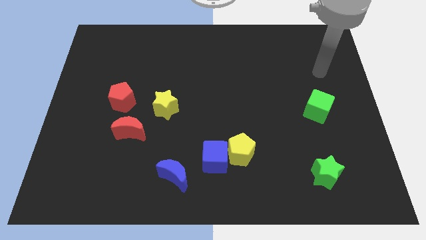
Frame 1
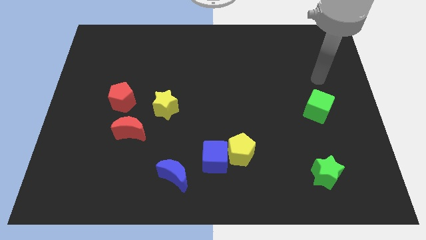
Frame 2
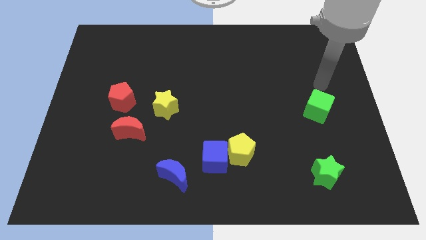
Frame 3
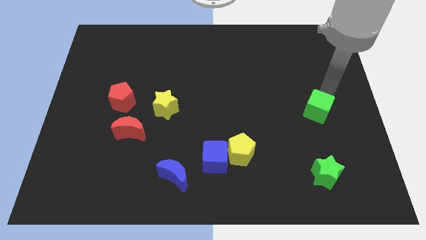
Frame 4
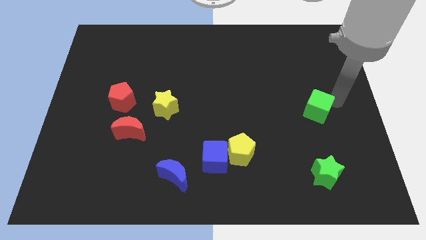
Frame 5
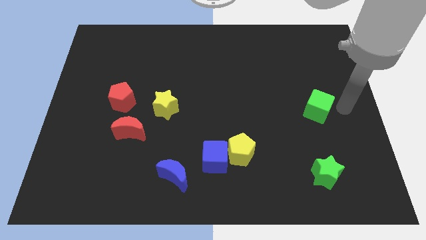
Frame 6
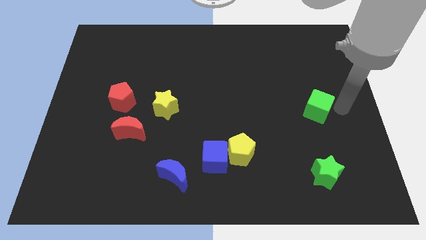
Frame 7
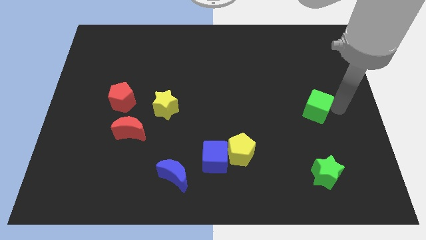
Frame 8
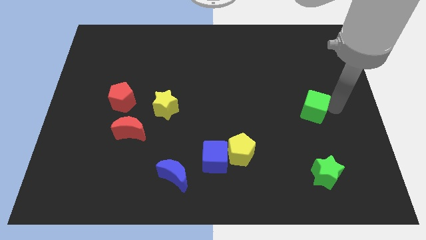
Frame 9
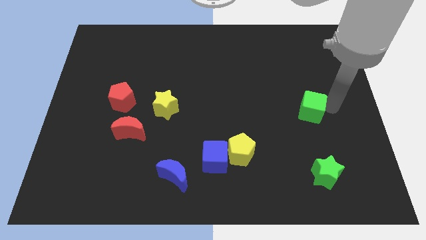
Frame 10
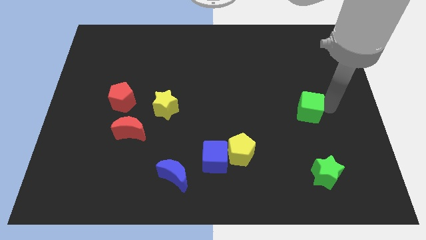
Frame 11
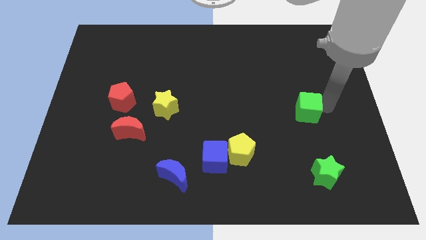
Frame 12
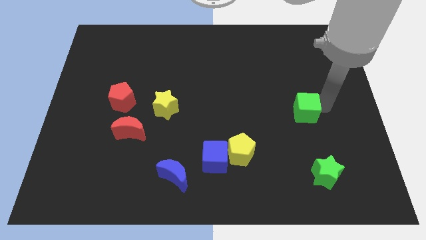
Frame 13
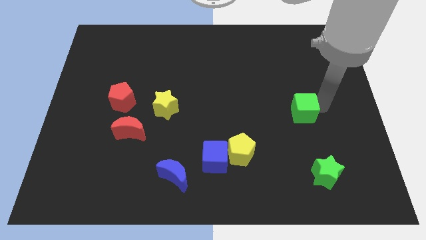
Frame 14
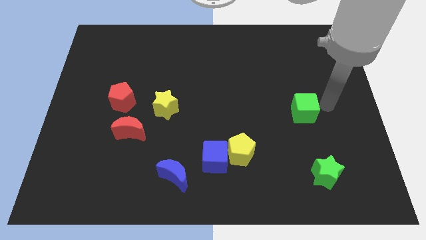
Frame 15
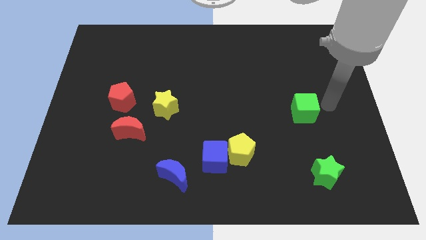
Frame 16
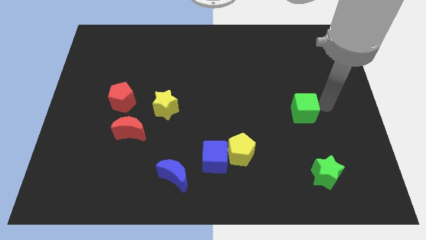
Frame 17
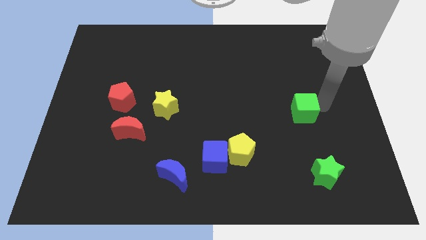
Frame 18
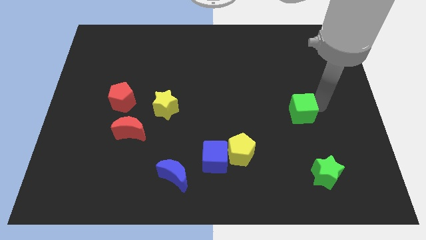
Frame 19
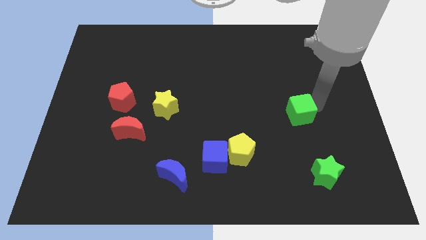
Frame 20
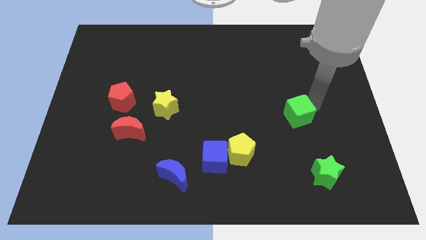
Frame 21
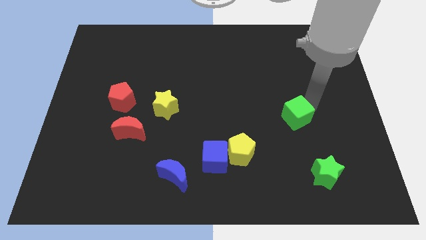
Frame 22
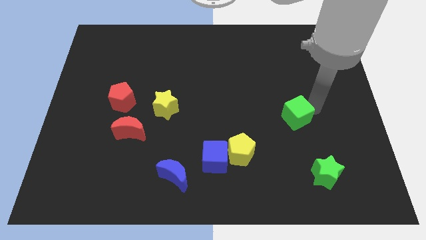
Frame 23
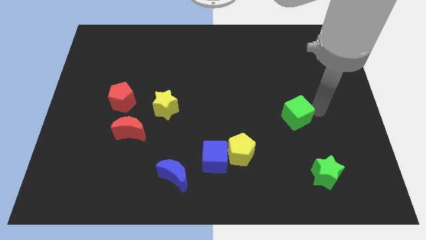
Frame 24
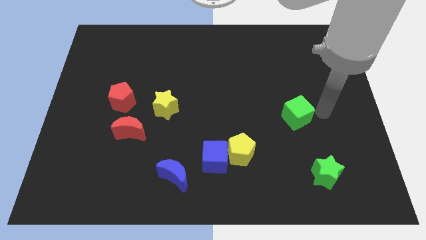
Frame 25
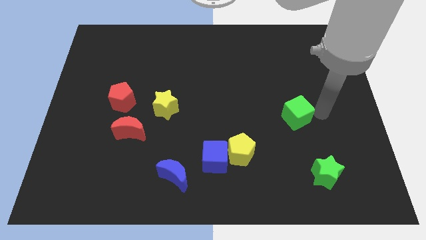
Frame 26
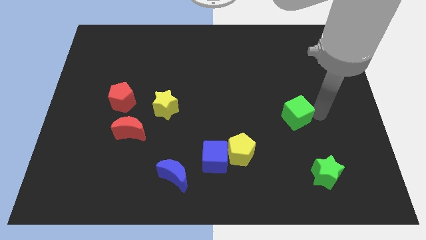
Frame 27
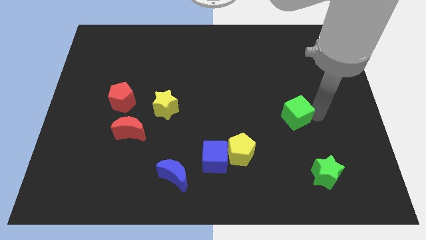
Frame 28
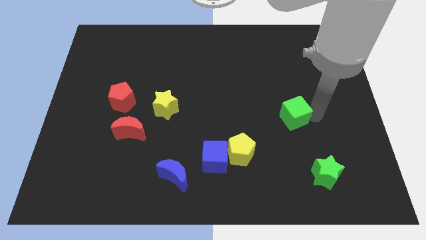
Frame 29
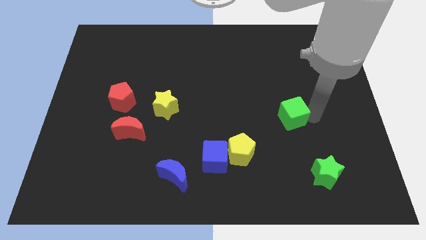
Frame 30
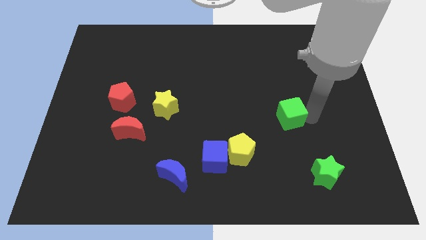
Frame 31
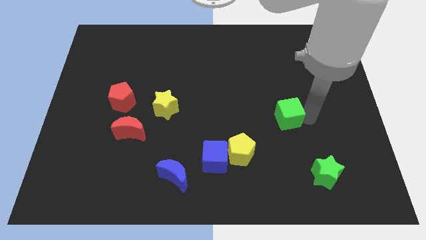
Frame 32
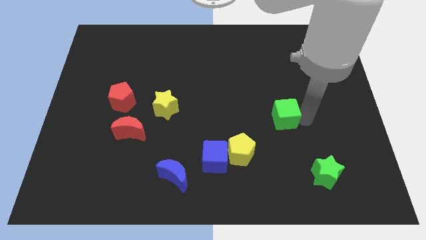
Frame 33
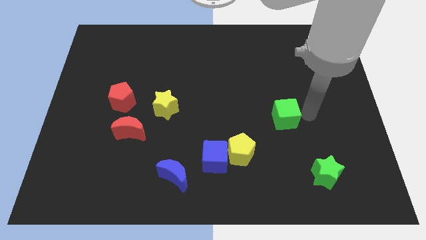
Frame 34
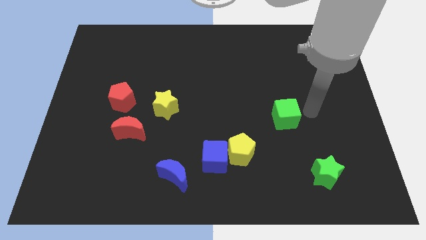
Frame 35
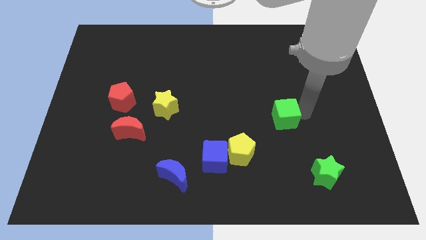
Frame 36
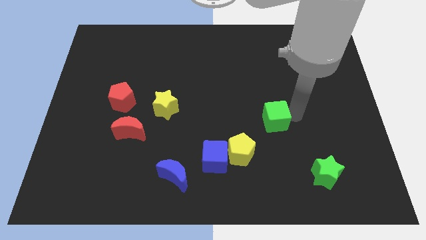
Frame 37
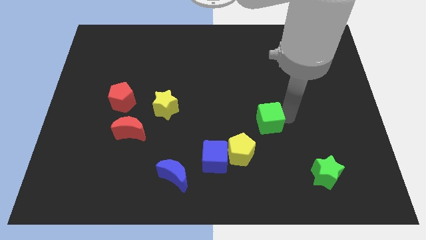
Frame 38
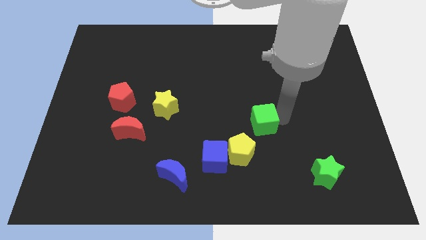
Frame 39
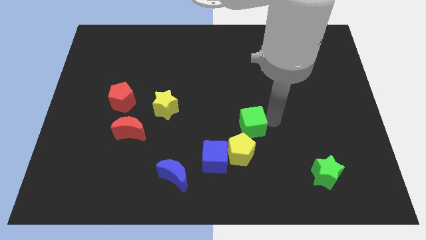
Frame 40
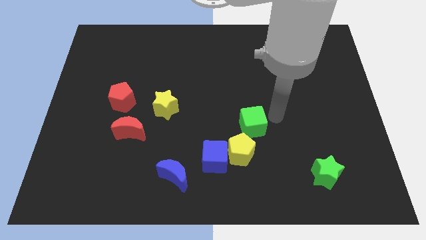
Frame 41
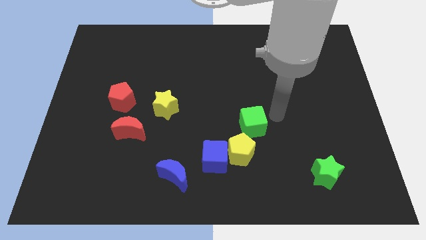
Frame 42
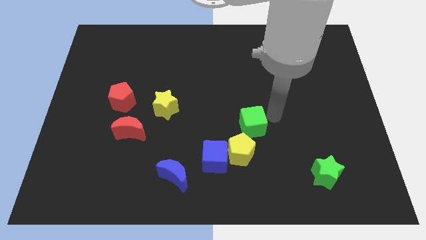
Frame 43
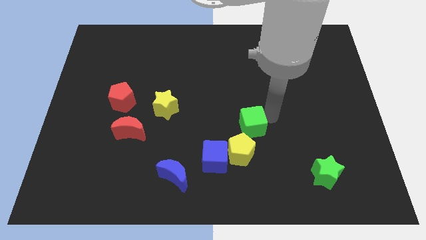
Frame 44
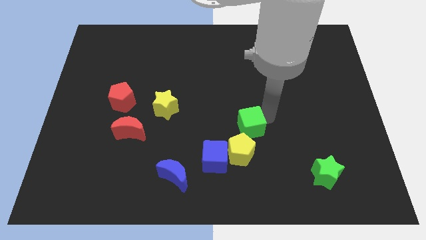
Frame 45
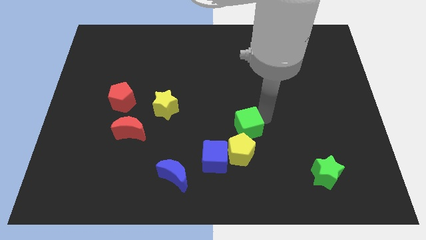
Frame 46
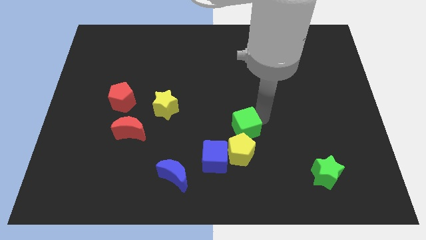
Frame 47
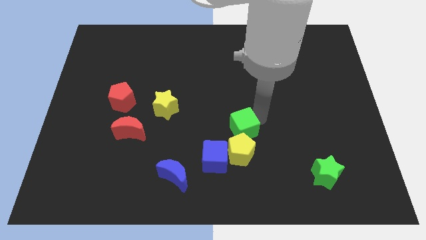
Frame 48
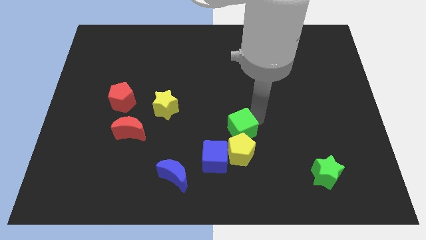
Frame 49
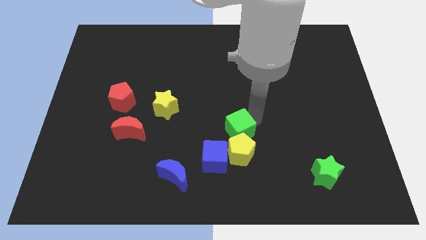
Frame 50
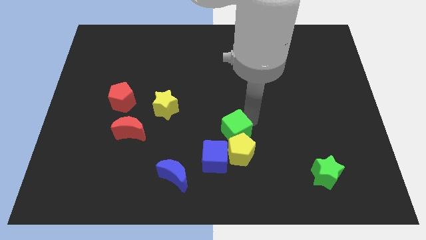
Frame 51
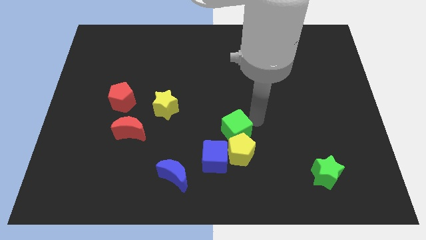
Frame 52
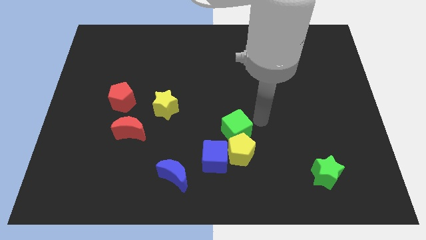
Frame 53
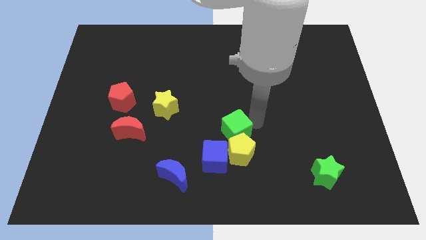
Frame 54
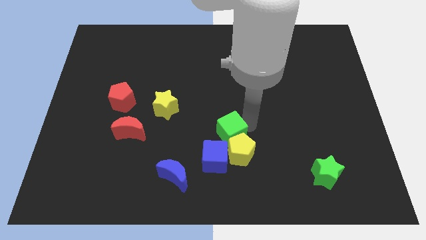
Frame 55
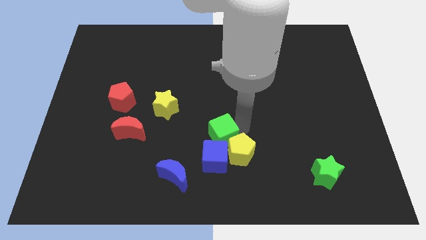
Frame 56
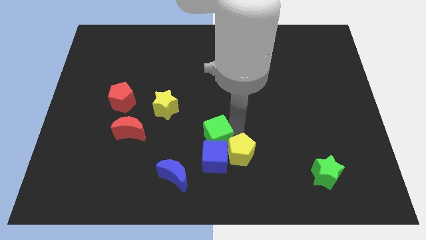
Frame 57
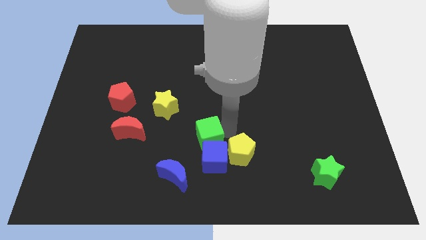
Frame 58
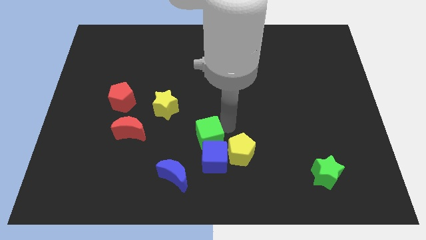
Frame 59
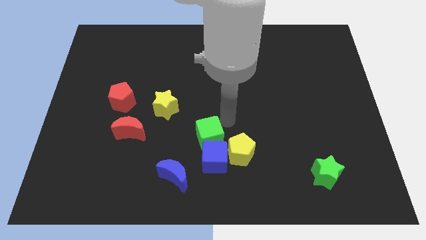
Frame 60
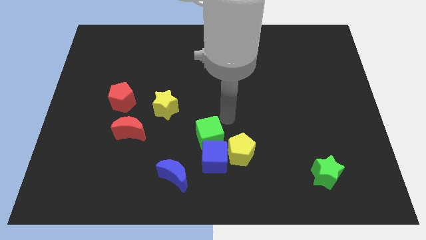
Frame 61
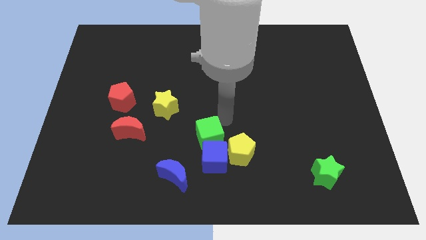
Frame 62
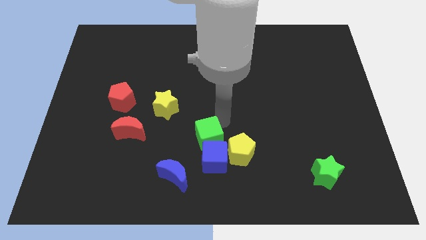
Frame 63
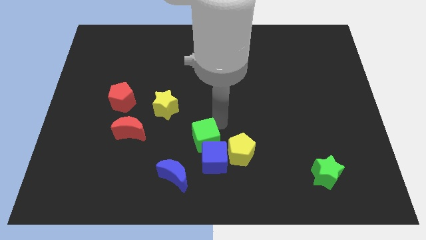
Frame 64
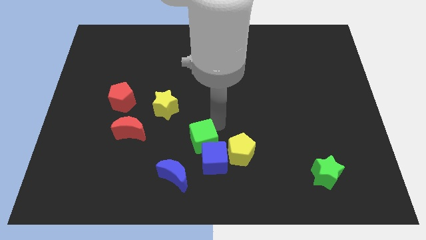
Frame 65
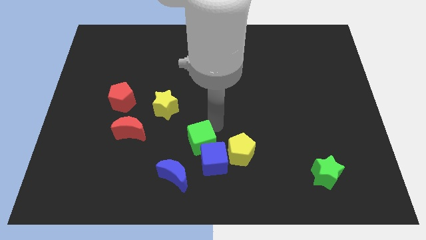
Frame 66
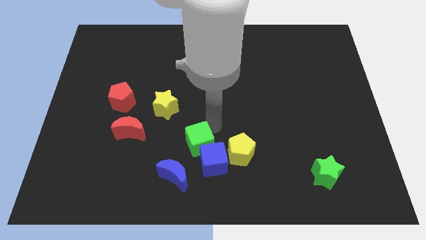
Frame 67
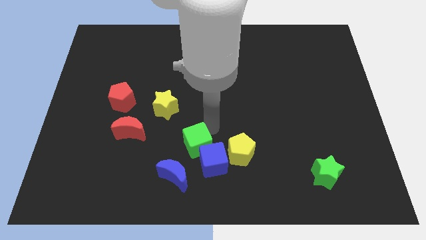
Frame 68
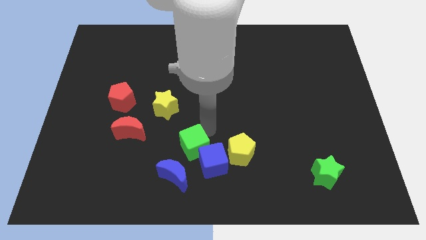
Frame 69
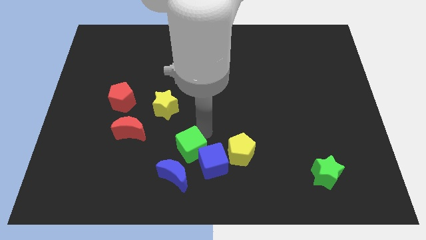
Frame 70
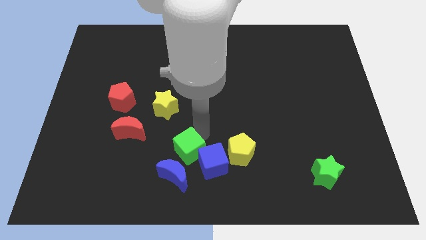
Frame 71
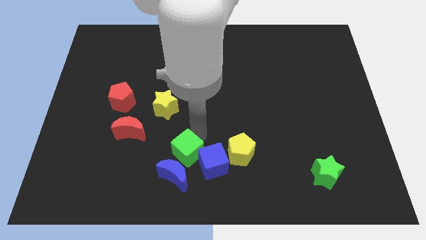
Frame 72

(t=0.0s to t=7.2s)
slide the green cube next to the blue moon

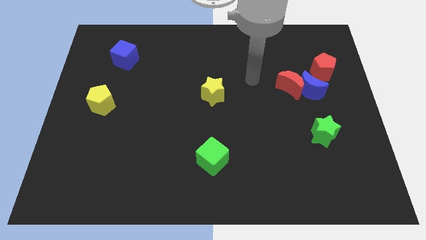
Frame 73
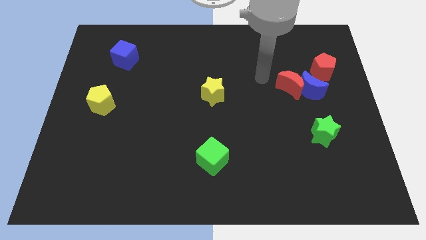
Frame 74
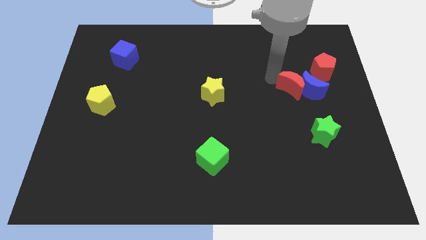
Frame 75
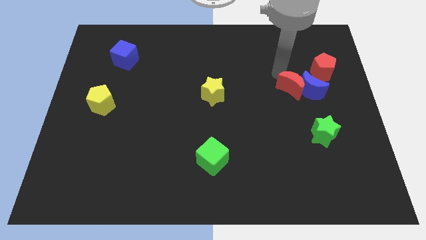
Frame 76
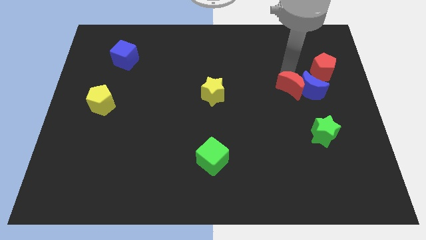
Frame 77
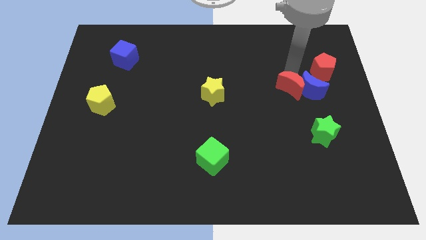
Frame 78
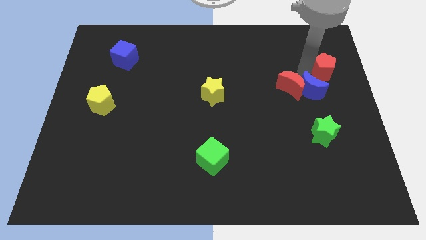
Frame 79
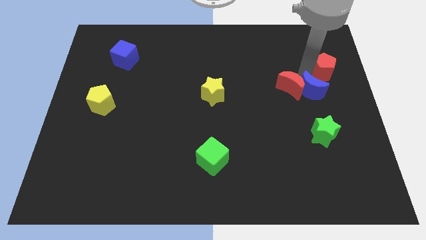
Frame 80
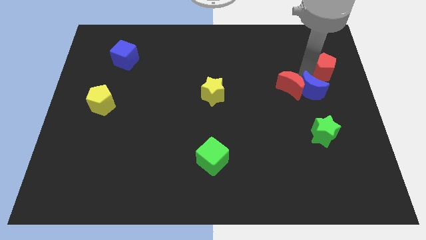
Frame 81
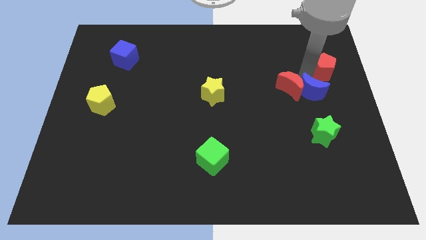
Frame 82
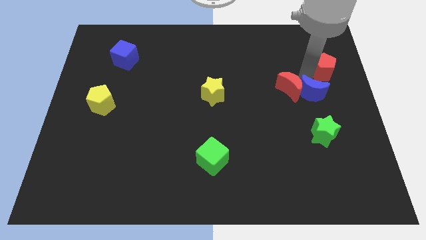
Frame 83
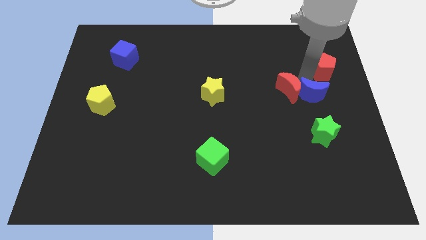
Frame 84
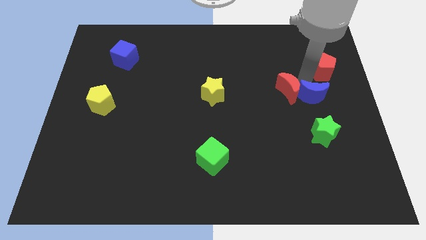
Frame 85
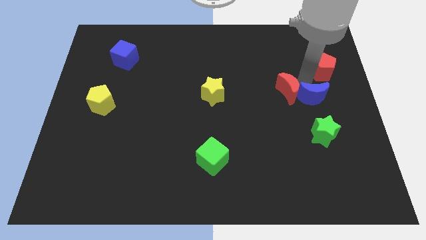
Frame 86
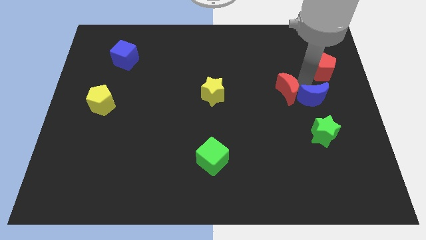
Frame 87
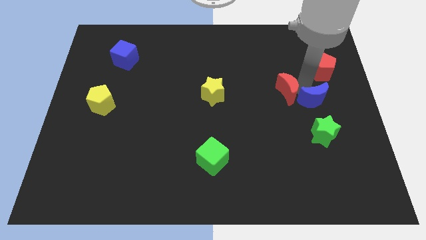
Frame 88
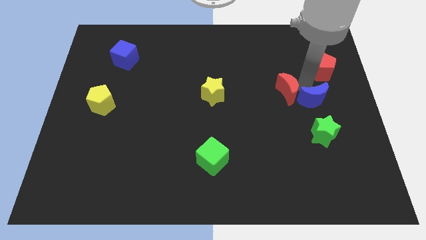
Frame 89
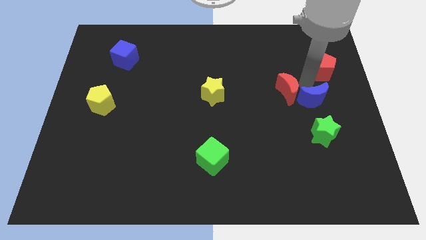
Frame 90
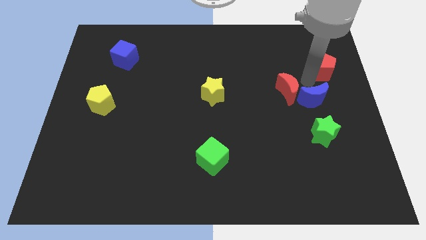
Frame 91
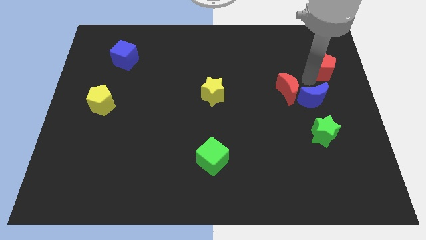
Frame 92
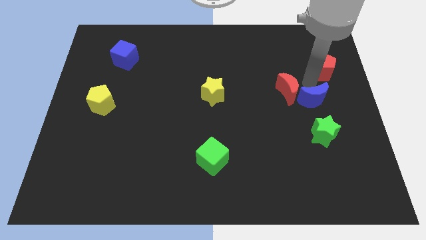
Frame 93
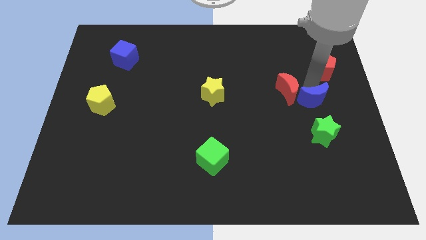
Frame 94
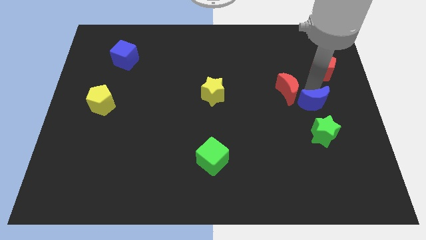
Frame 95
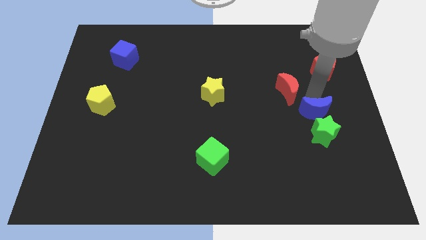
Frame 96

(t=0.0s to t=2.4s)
move the blue moon next to the green star
